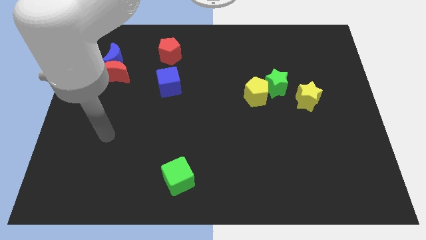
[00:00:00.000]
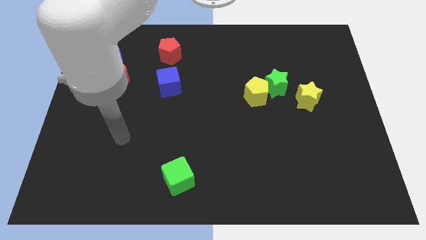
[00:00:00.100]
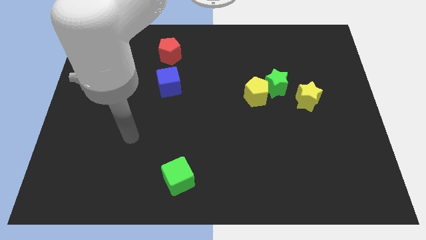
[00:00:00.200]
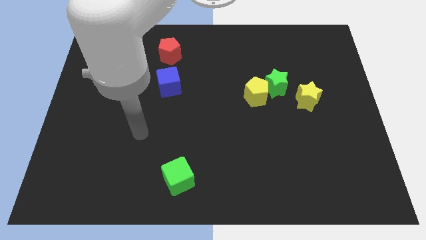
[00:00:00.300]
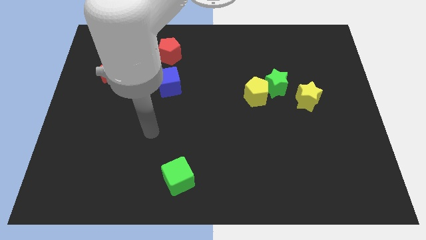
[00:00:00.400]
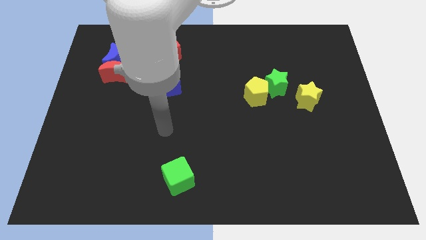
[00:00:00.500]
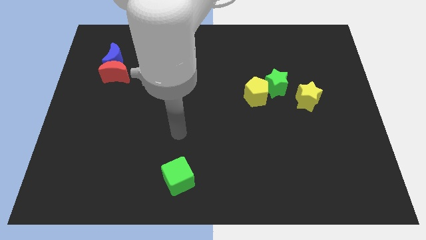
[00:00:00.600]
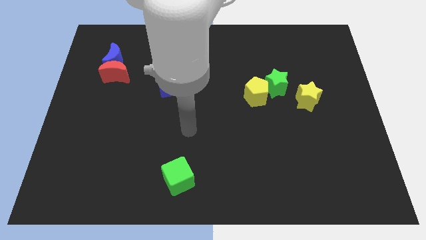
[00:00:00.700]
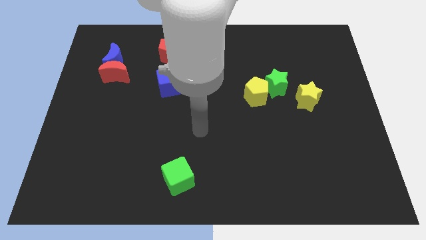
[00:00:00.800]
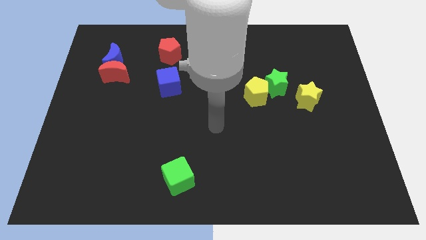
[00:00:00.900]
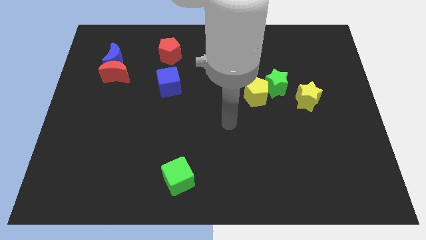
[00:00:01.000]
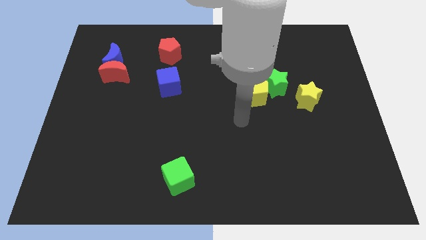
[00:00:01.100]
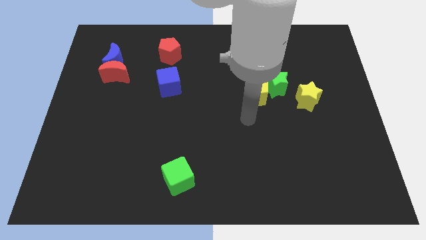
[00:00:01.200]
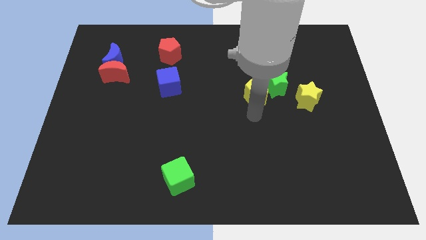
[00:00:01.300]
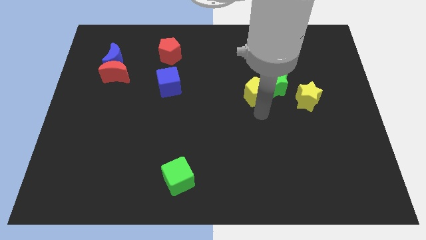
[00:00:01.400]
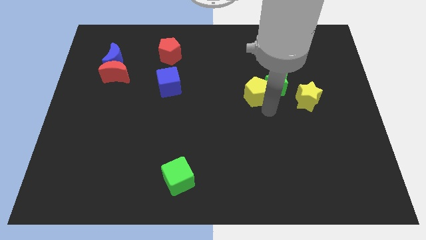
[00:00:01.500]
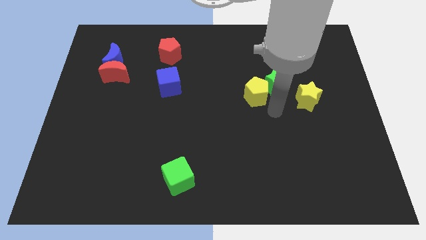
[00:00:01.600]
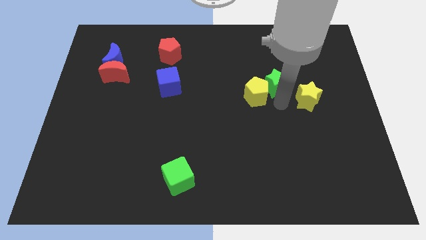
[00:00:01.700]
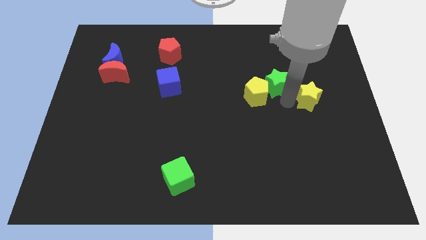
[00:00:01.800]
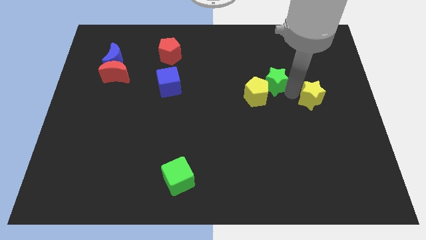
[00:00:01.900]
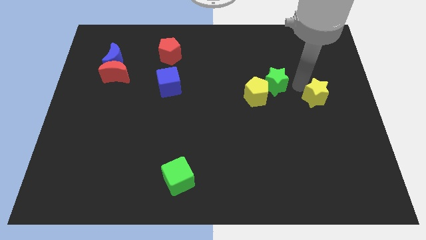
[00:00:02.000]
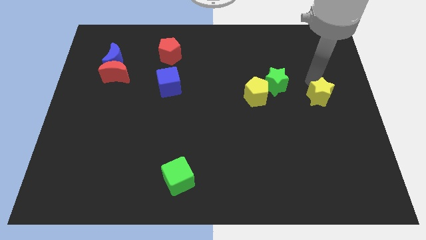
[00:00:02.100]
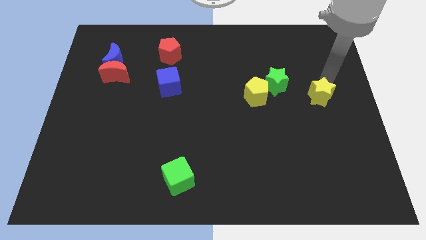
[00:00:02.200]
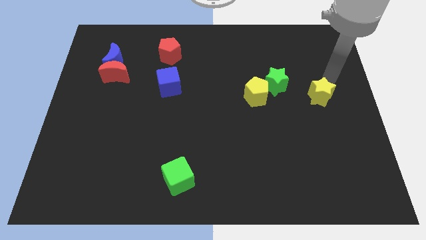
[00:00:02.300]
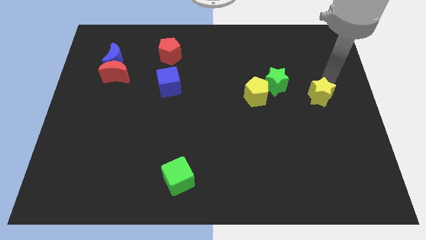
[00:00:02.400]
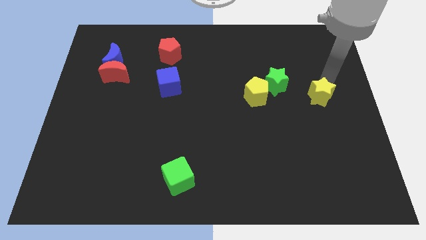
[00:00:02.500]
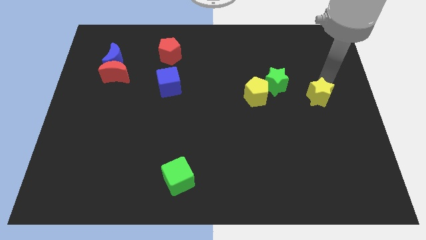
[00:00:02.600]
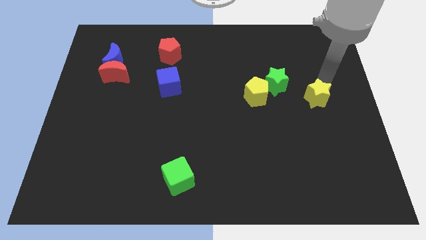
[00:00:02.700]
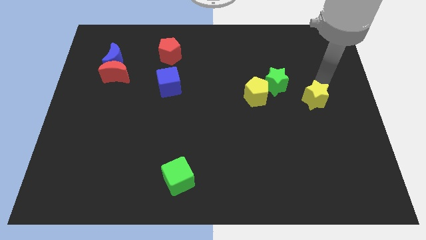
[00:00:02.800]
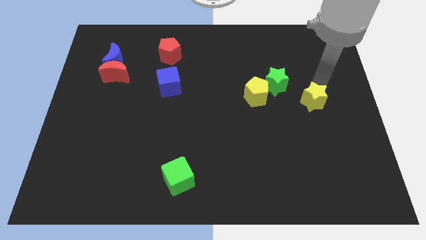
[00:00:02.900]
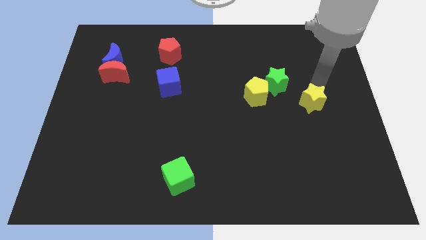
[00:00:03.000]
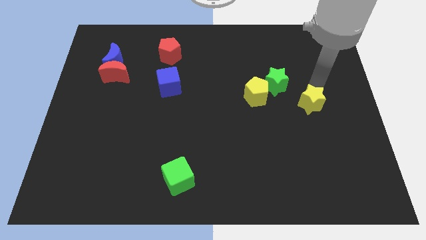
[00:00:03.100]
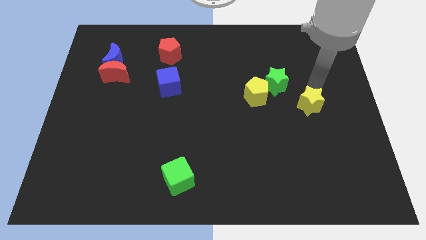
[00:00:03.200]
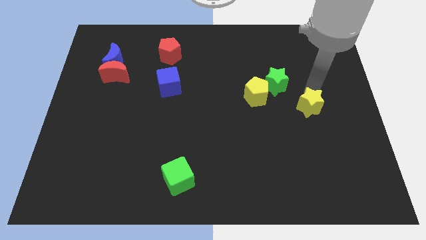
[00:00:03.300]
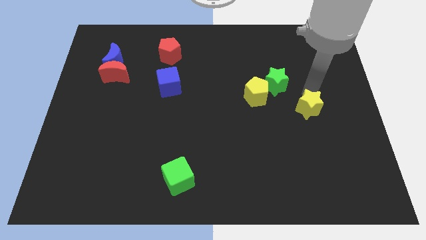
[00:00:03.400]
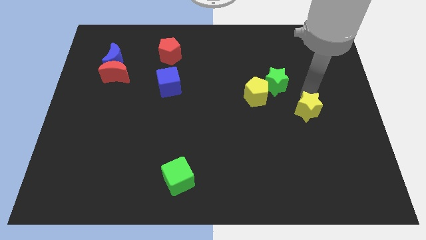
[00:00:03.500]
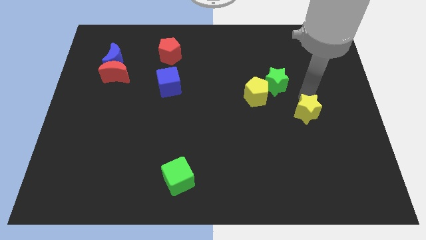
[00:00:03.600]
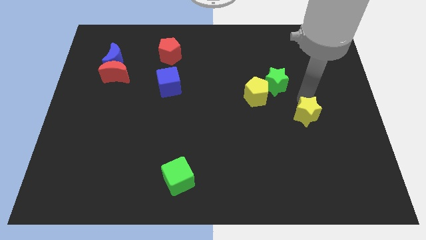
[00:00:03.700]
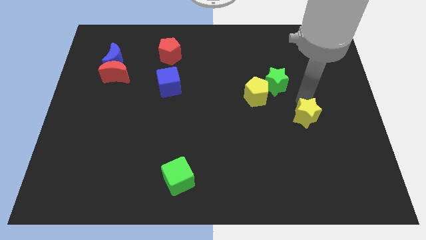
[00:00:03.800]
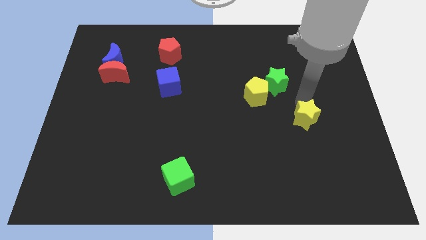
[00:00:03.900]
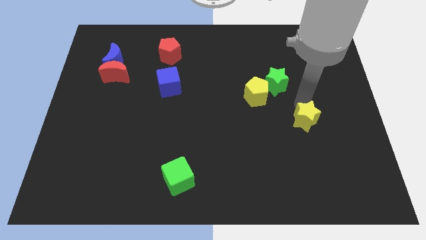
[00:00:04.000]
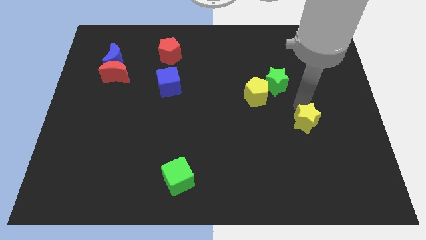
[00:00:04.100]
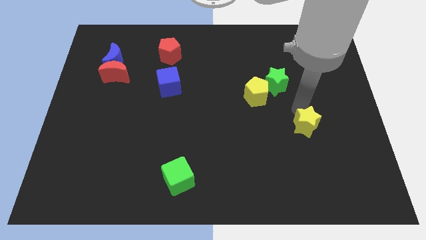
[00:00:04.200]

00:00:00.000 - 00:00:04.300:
move the yellow star a little down

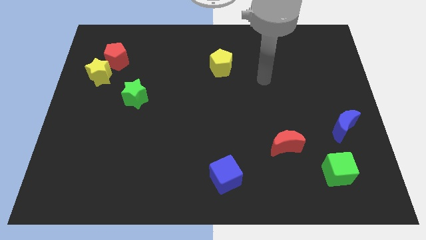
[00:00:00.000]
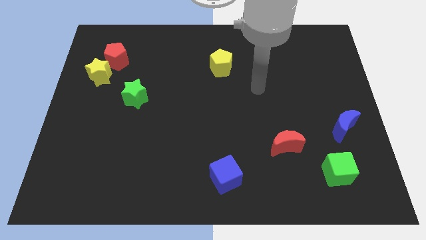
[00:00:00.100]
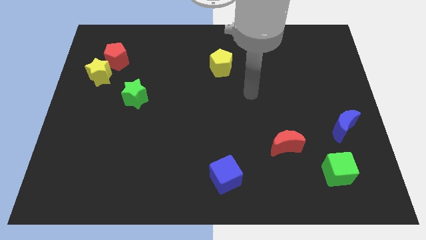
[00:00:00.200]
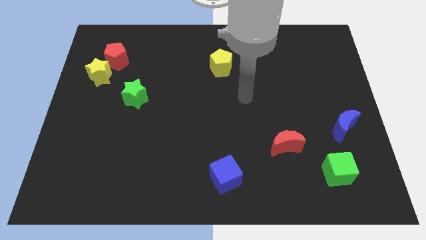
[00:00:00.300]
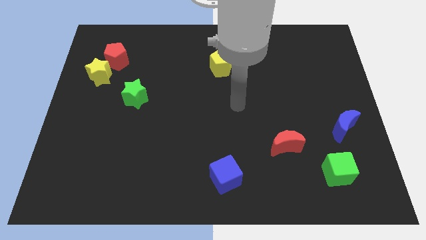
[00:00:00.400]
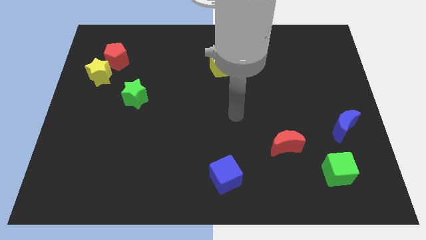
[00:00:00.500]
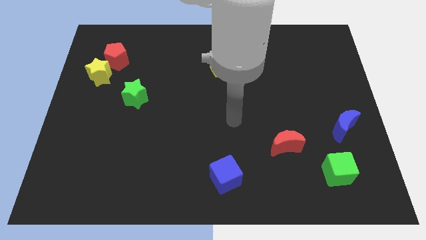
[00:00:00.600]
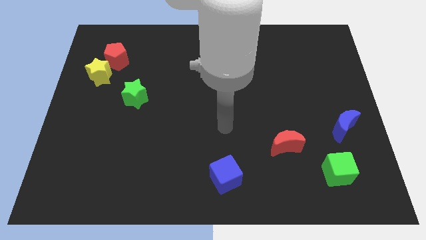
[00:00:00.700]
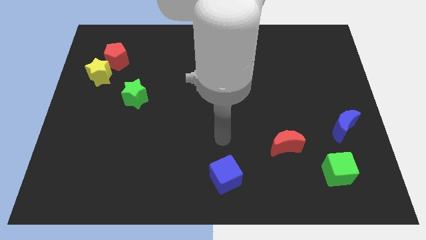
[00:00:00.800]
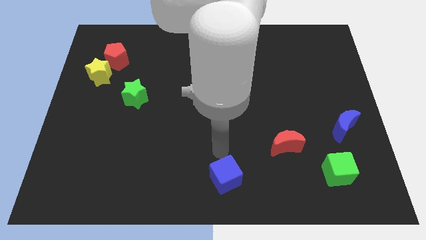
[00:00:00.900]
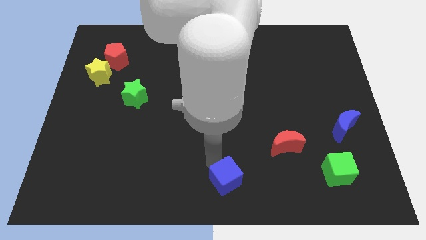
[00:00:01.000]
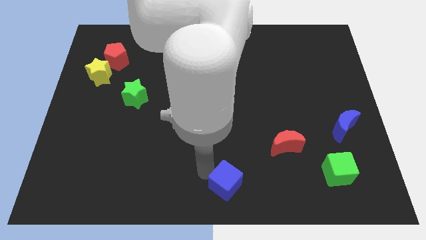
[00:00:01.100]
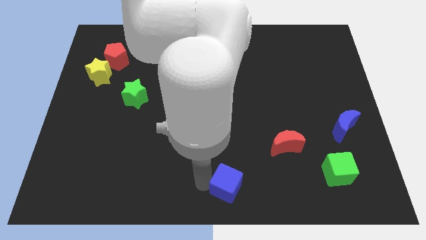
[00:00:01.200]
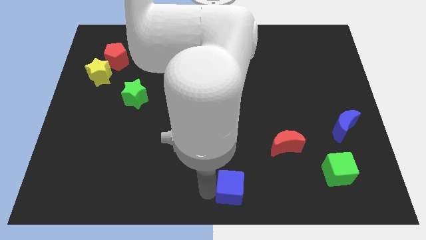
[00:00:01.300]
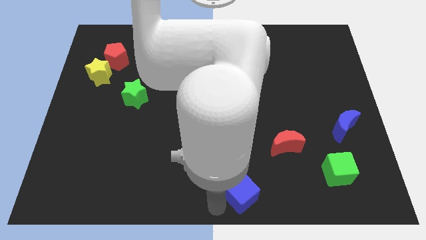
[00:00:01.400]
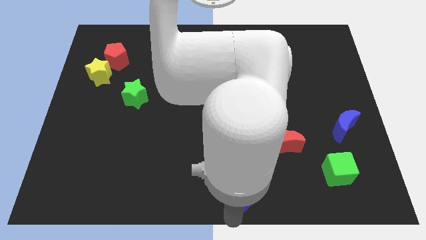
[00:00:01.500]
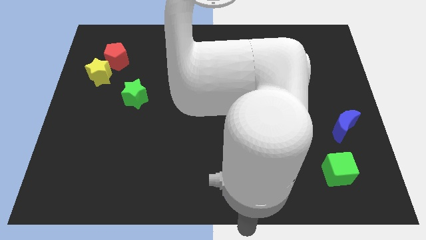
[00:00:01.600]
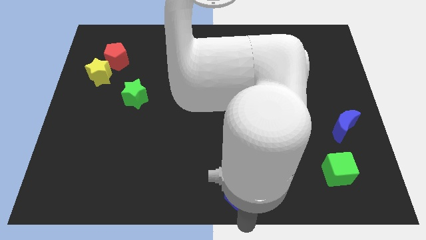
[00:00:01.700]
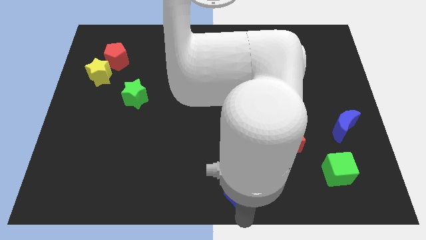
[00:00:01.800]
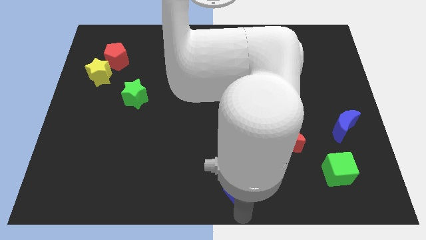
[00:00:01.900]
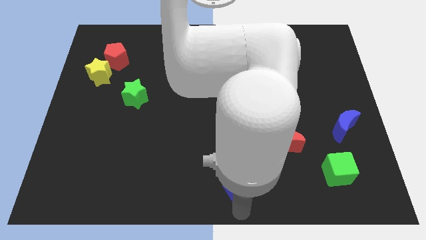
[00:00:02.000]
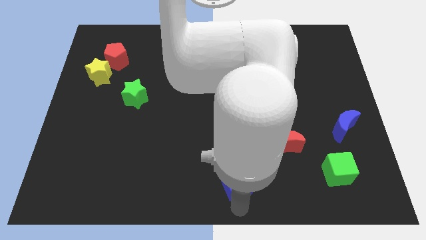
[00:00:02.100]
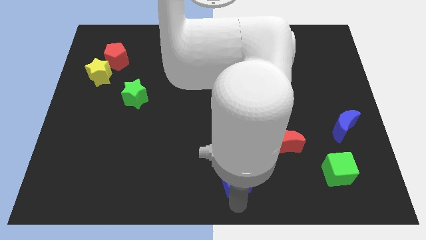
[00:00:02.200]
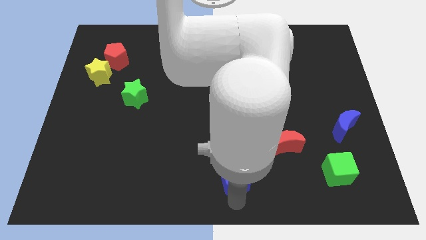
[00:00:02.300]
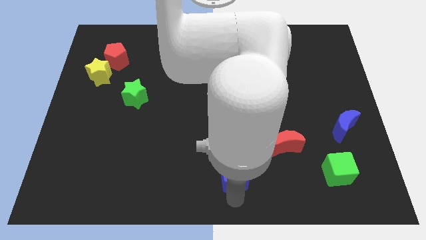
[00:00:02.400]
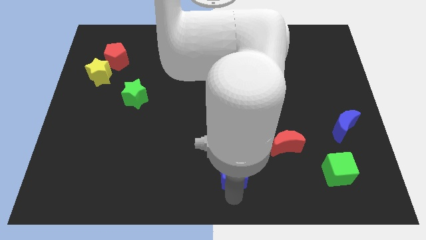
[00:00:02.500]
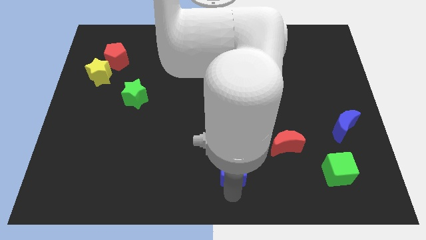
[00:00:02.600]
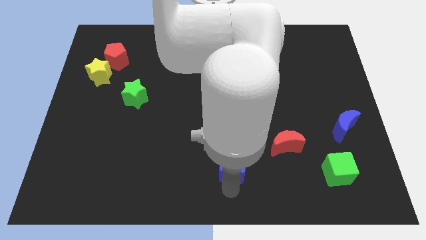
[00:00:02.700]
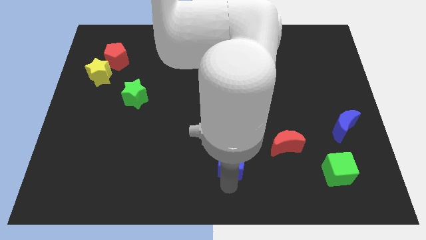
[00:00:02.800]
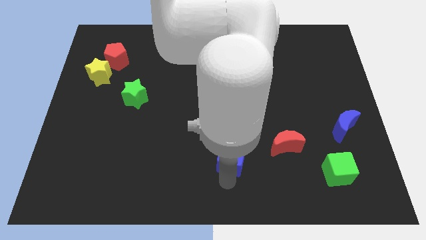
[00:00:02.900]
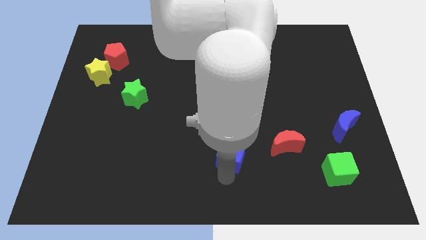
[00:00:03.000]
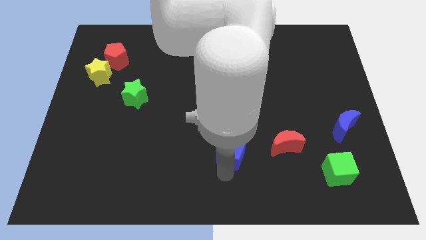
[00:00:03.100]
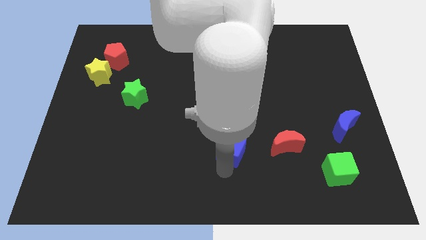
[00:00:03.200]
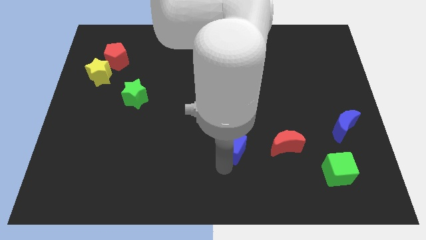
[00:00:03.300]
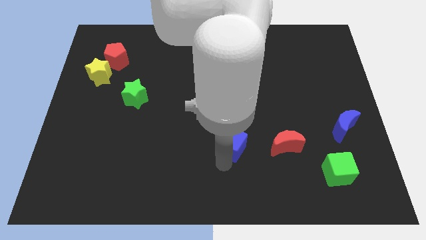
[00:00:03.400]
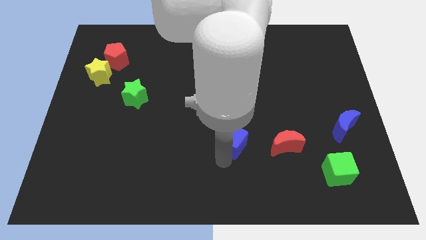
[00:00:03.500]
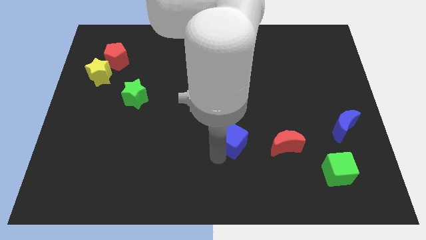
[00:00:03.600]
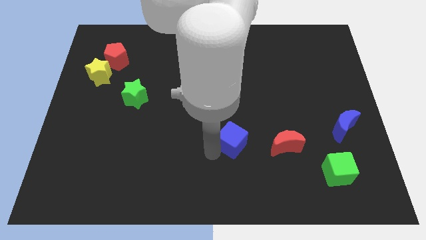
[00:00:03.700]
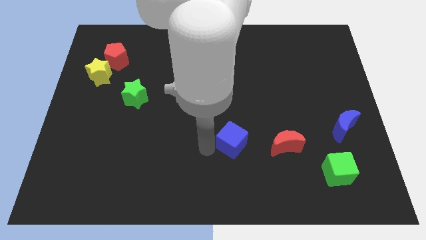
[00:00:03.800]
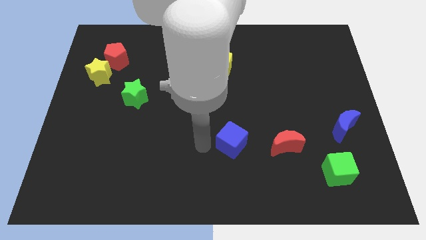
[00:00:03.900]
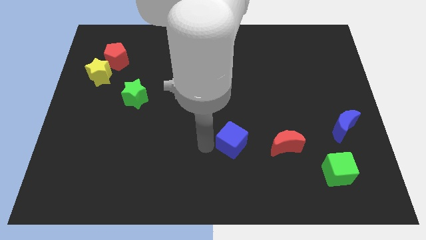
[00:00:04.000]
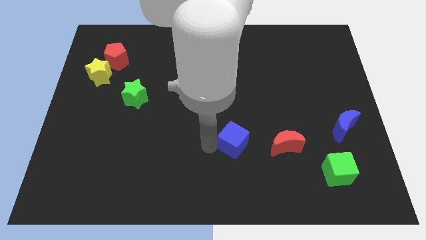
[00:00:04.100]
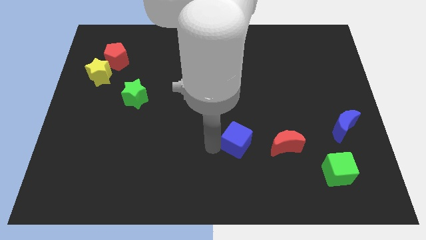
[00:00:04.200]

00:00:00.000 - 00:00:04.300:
move the blue cube upwards and to the right somewhat
